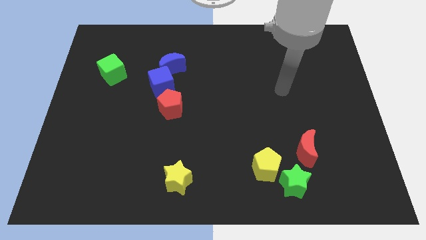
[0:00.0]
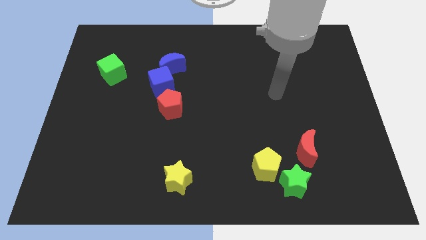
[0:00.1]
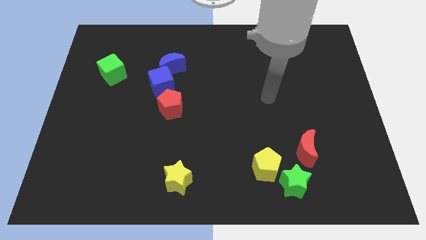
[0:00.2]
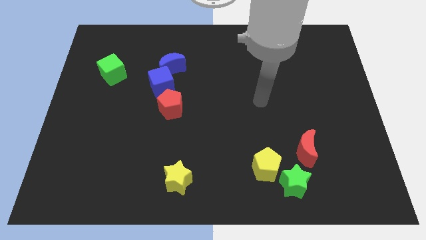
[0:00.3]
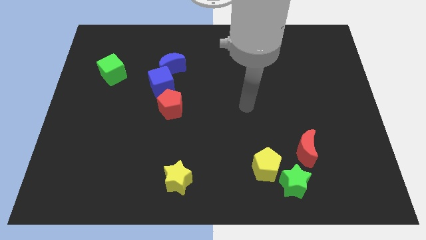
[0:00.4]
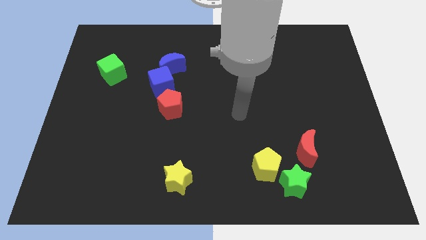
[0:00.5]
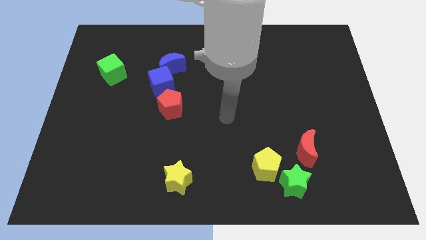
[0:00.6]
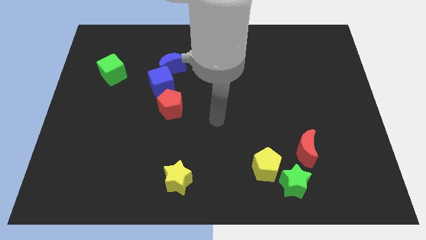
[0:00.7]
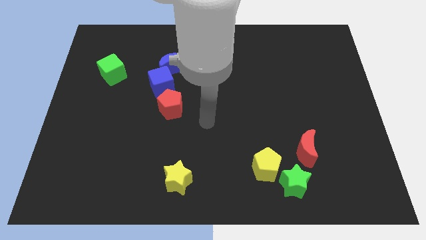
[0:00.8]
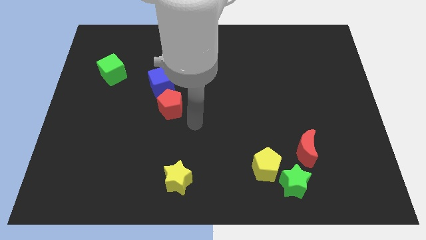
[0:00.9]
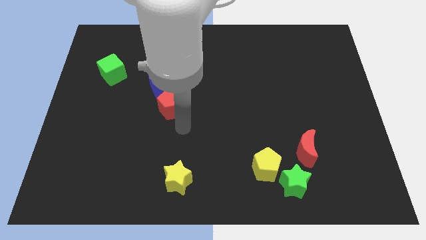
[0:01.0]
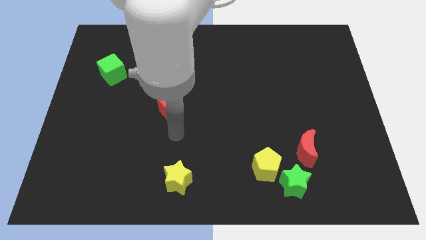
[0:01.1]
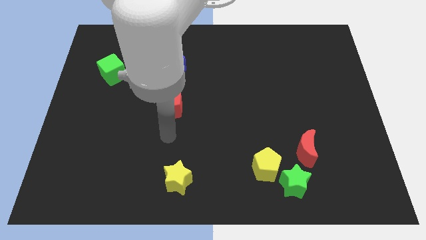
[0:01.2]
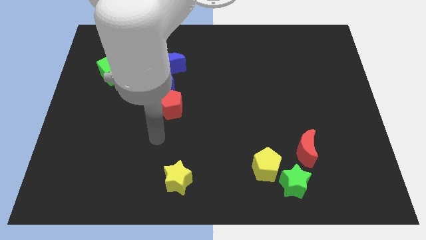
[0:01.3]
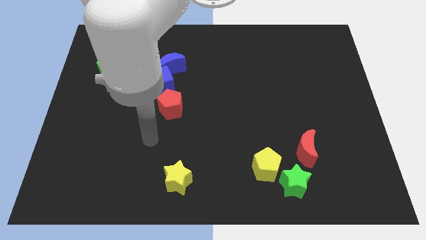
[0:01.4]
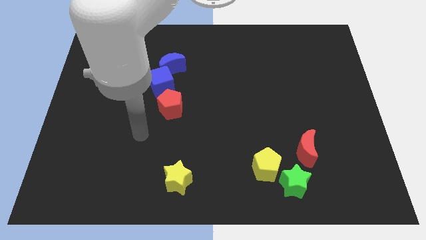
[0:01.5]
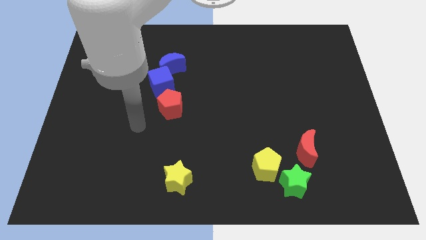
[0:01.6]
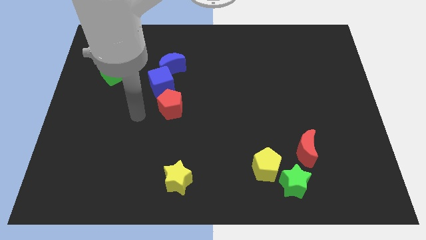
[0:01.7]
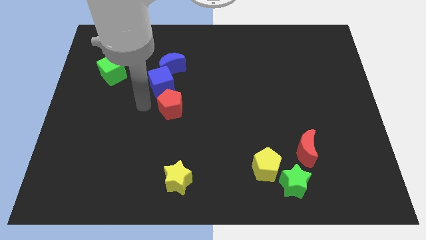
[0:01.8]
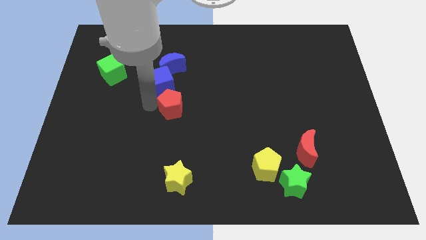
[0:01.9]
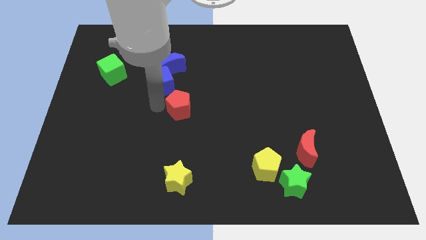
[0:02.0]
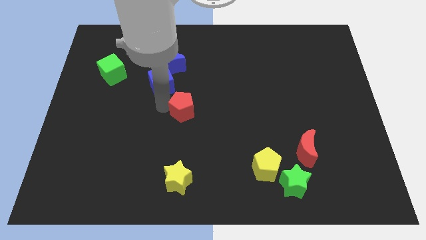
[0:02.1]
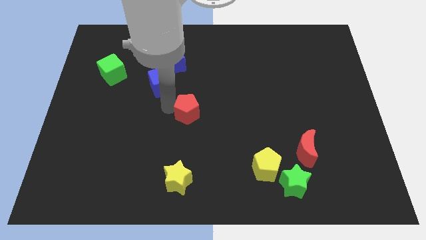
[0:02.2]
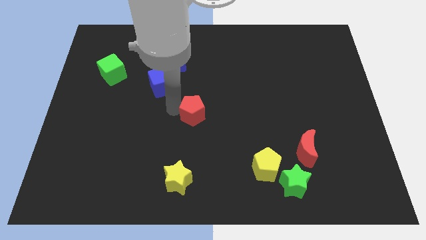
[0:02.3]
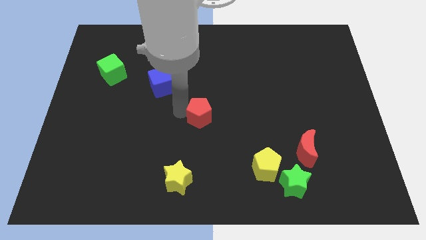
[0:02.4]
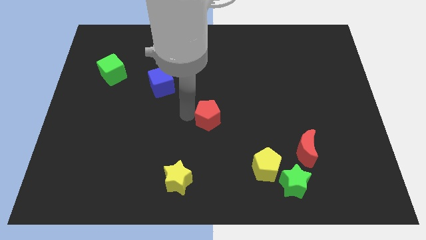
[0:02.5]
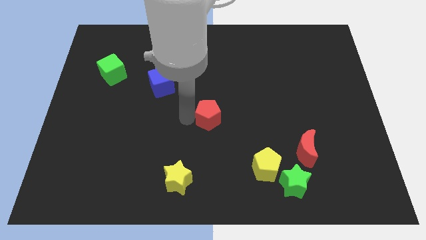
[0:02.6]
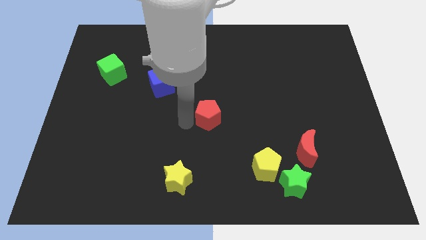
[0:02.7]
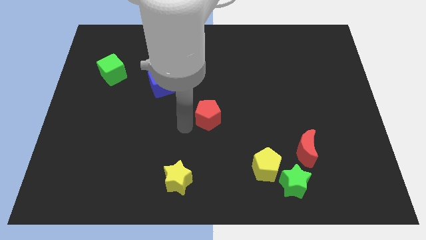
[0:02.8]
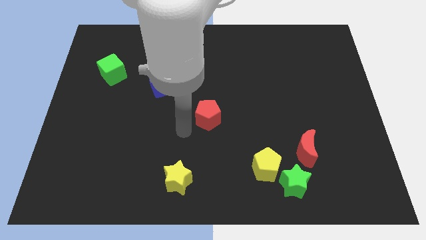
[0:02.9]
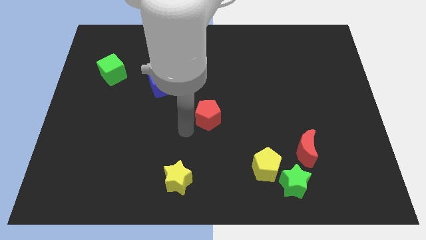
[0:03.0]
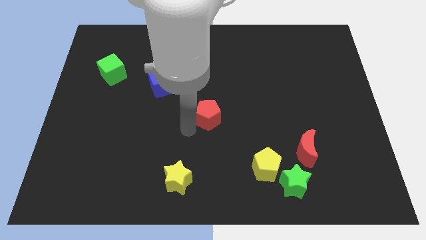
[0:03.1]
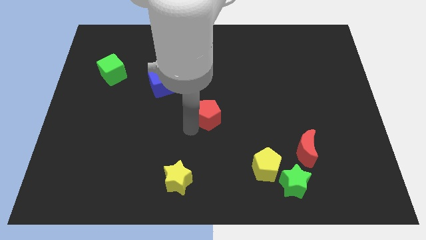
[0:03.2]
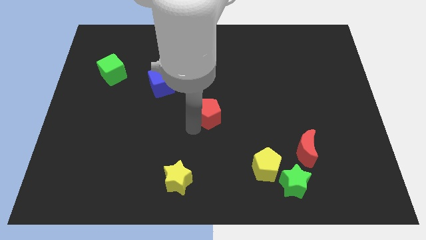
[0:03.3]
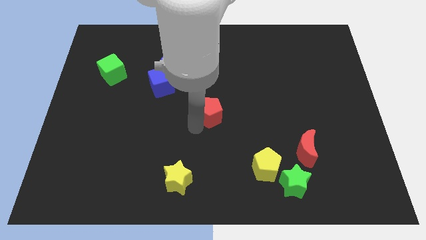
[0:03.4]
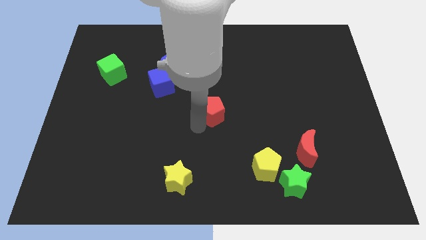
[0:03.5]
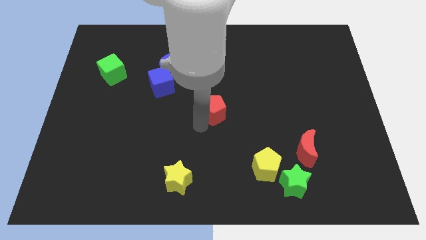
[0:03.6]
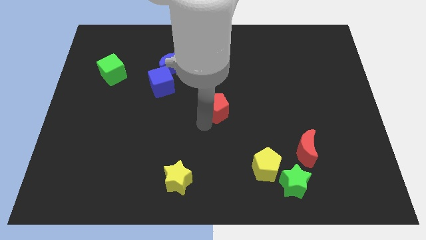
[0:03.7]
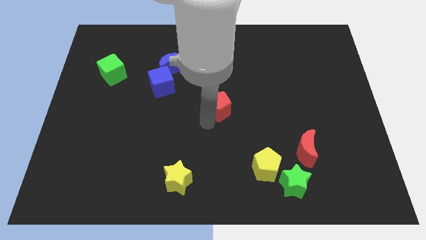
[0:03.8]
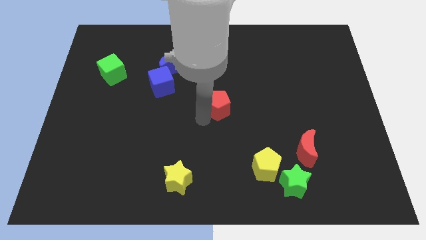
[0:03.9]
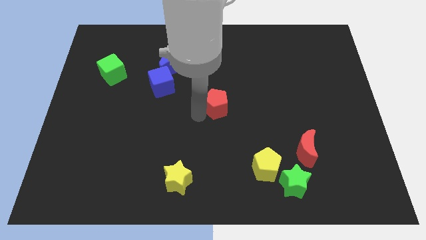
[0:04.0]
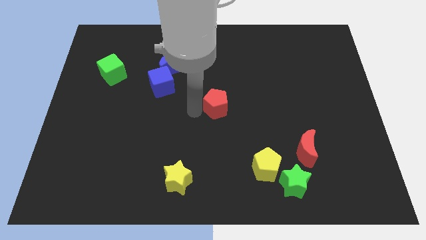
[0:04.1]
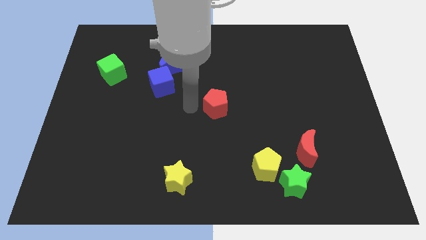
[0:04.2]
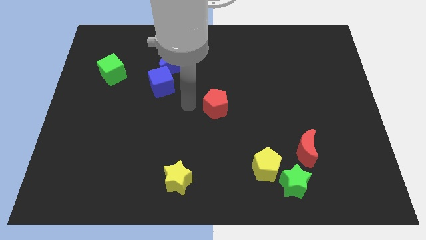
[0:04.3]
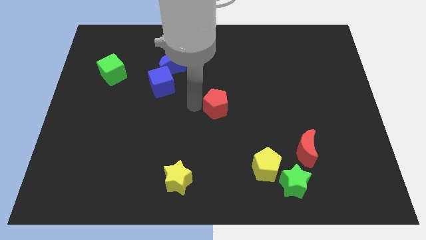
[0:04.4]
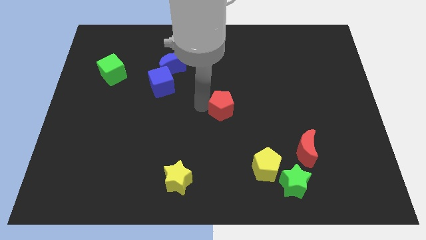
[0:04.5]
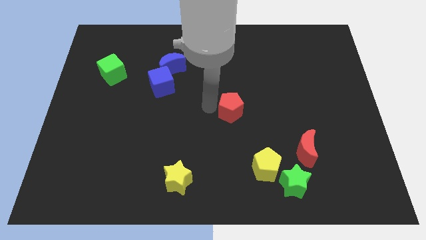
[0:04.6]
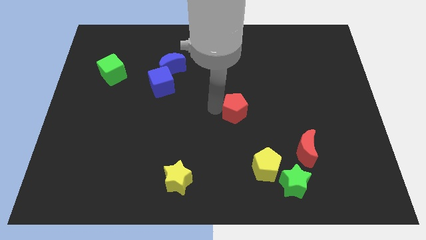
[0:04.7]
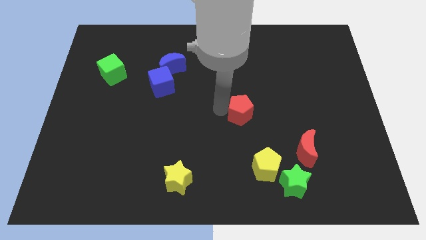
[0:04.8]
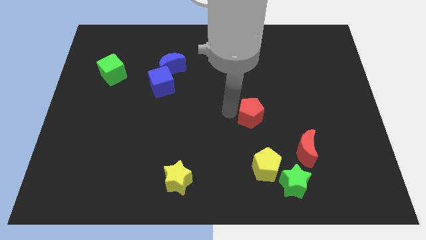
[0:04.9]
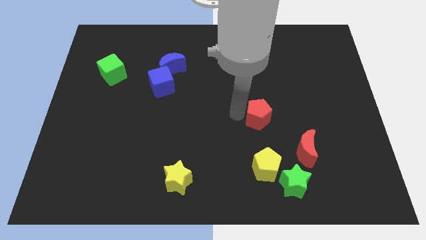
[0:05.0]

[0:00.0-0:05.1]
push the red pentagon to the right

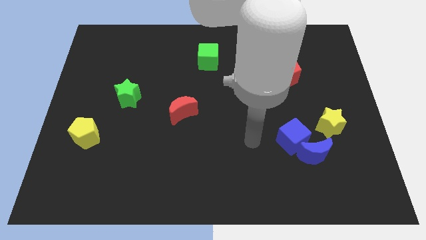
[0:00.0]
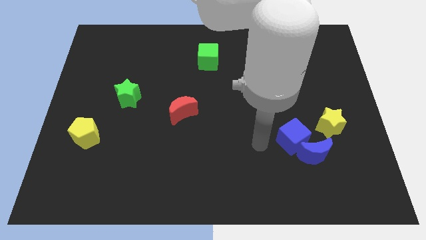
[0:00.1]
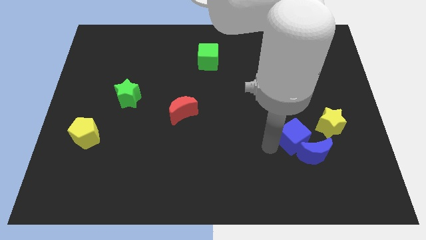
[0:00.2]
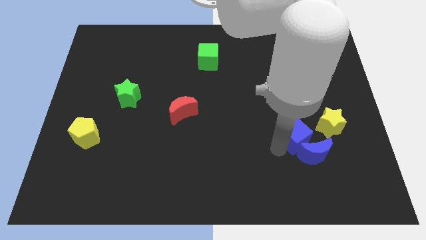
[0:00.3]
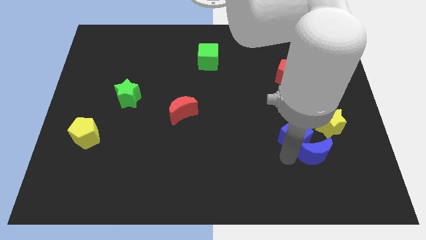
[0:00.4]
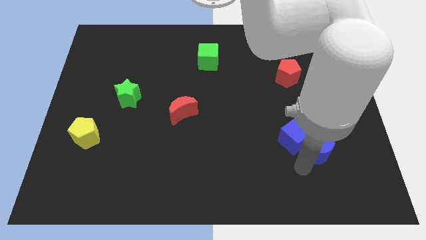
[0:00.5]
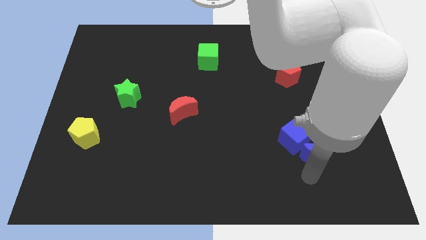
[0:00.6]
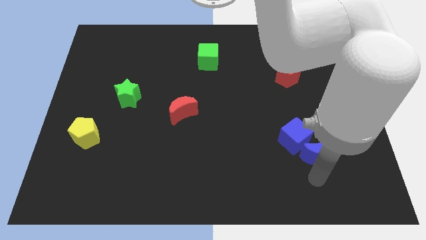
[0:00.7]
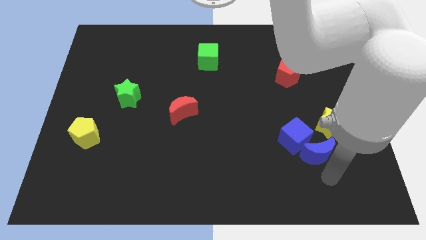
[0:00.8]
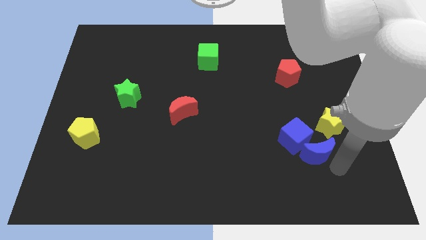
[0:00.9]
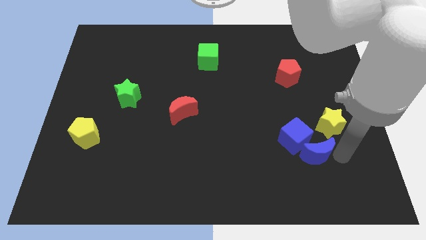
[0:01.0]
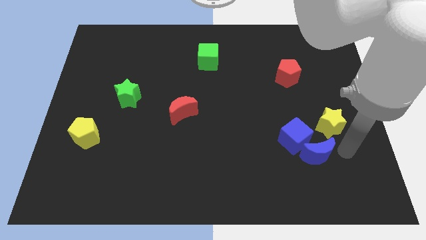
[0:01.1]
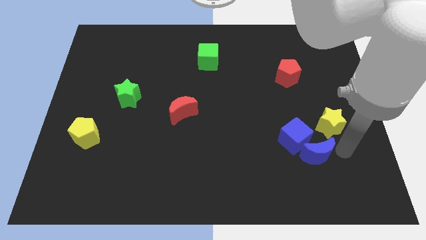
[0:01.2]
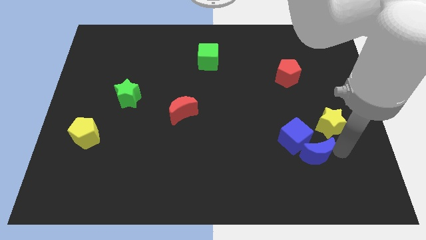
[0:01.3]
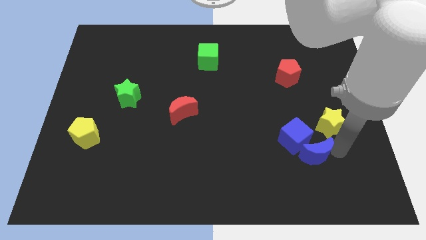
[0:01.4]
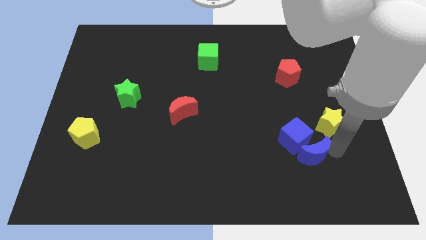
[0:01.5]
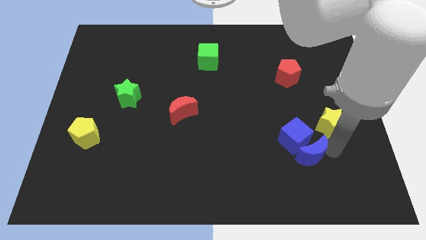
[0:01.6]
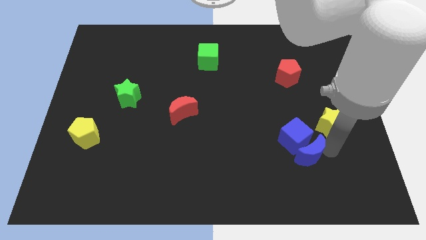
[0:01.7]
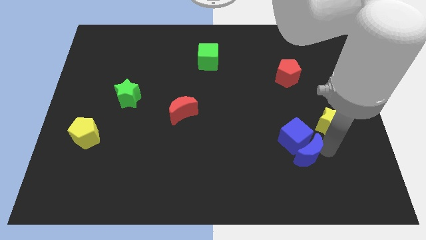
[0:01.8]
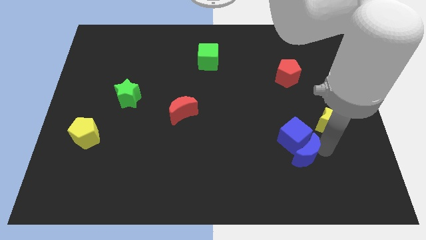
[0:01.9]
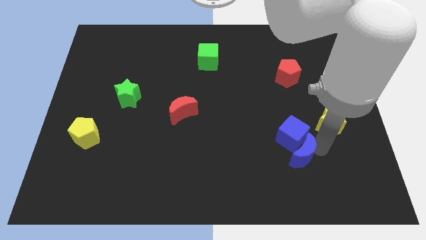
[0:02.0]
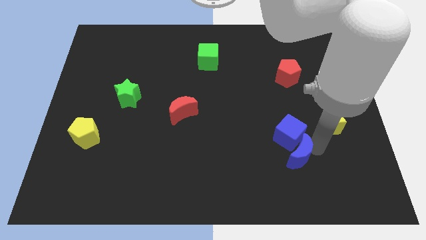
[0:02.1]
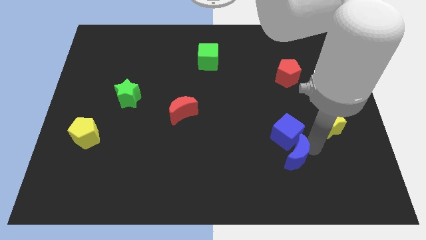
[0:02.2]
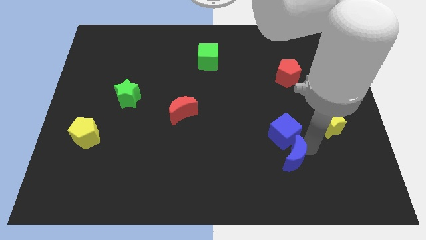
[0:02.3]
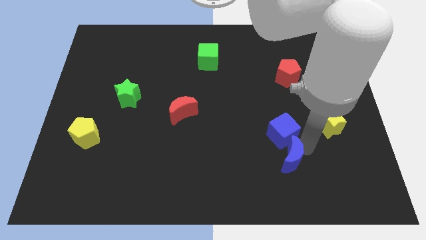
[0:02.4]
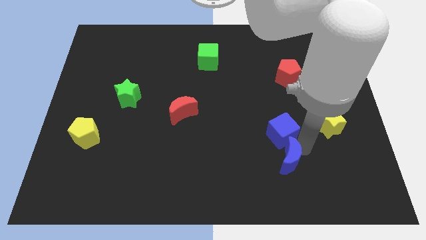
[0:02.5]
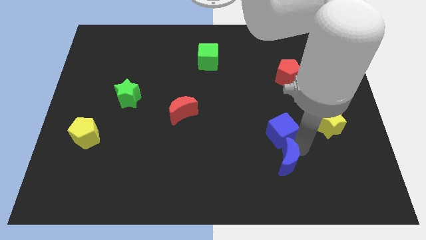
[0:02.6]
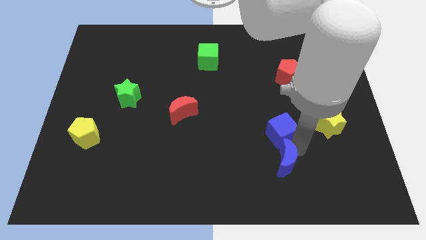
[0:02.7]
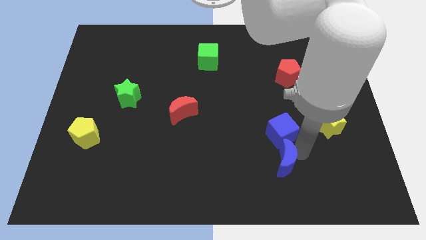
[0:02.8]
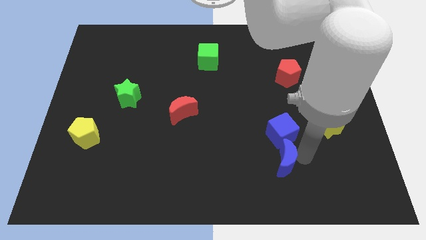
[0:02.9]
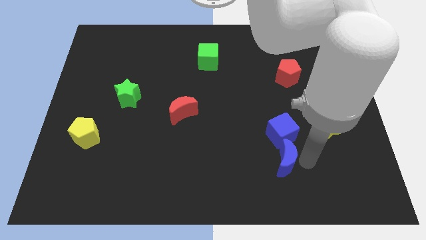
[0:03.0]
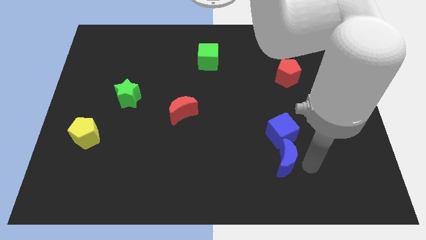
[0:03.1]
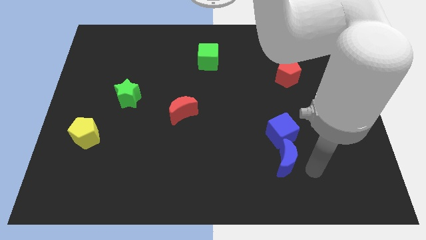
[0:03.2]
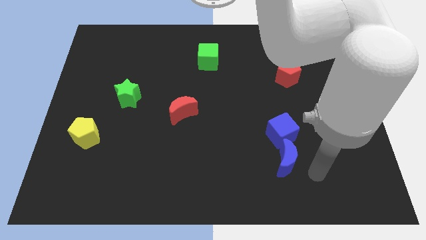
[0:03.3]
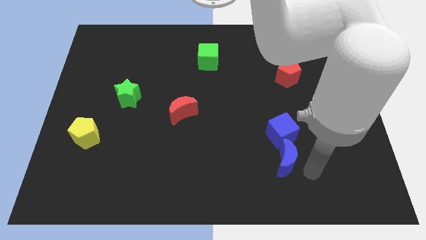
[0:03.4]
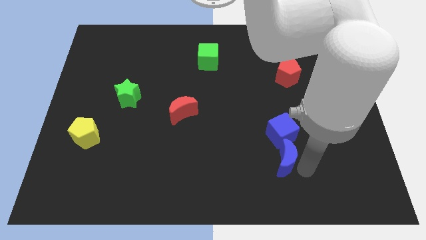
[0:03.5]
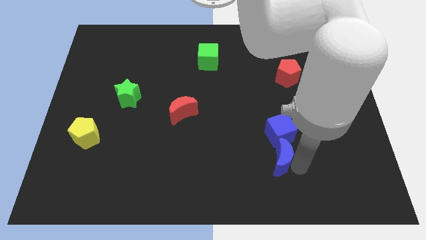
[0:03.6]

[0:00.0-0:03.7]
push the blue moon to the left somewhat
